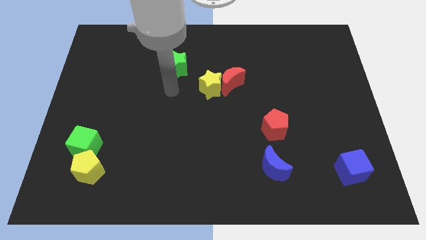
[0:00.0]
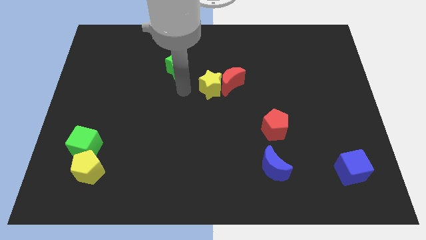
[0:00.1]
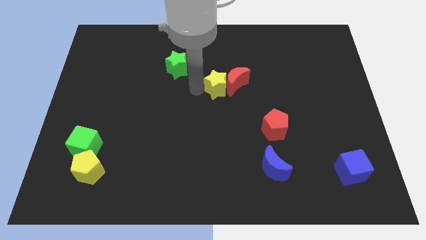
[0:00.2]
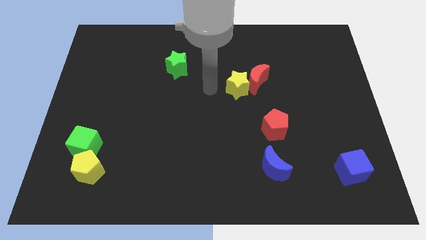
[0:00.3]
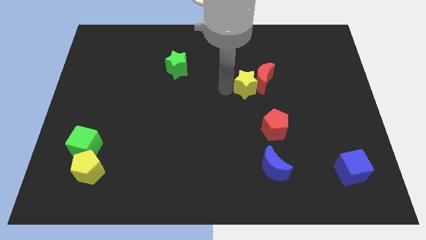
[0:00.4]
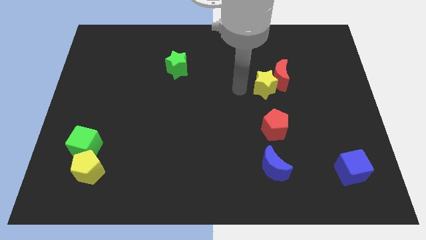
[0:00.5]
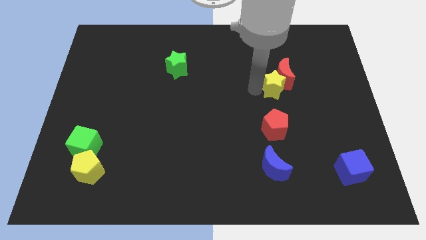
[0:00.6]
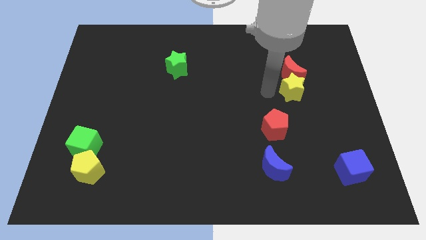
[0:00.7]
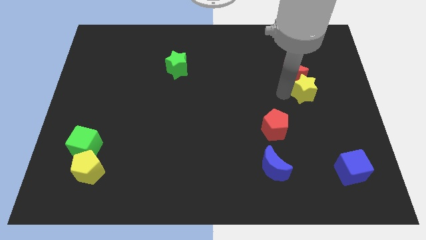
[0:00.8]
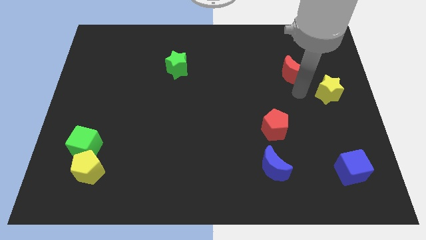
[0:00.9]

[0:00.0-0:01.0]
move the red moon away from the yellow star

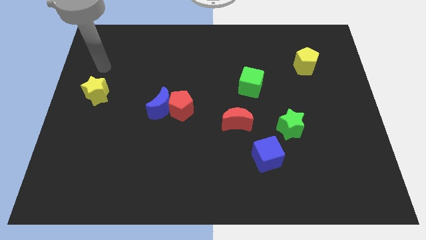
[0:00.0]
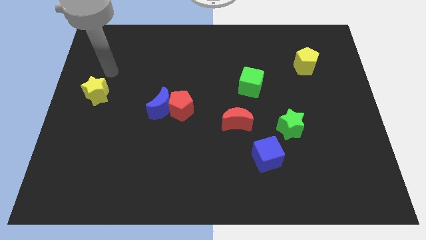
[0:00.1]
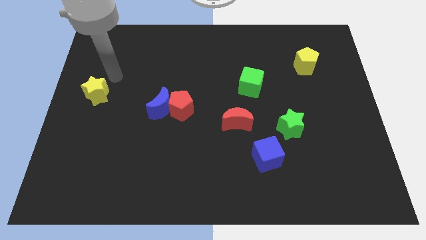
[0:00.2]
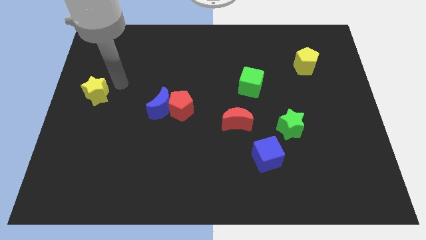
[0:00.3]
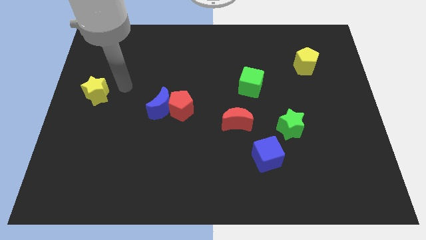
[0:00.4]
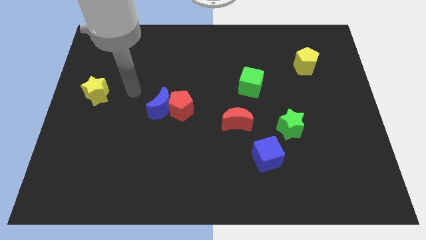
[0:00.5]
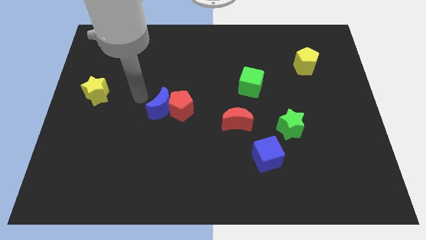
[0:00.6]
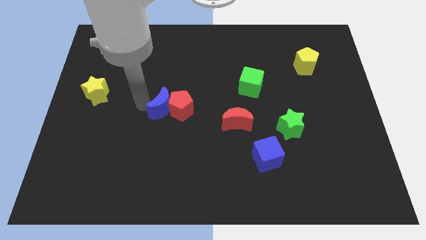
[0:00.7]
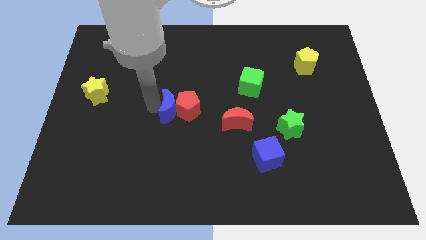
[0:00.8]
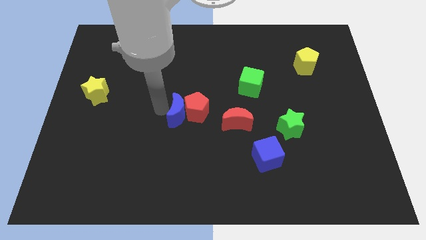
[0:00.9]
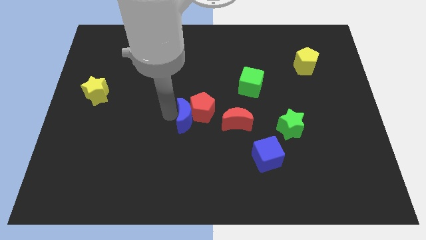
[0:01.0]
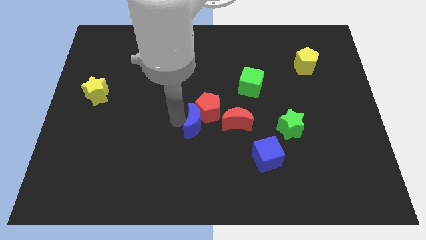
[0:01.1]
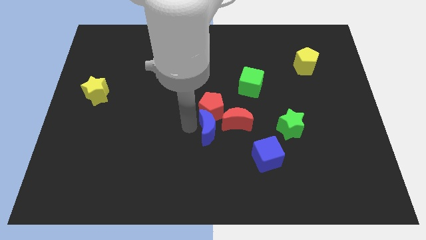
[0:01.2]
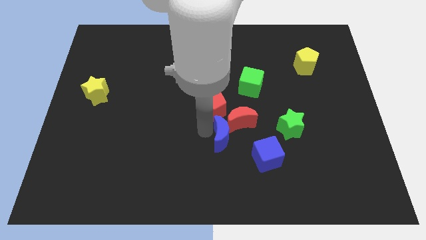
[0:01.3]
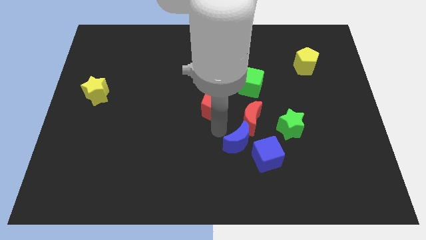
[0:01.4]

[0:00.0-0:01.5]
pull the red pentagon apart from the blue moon

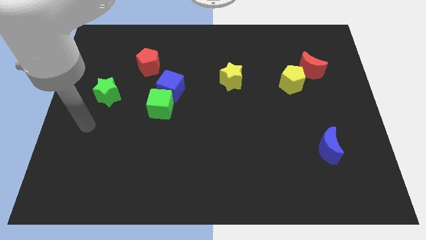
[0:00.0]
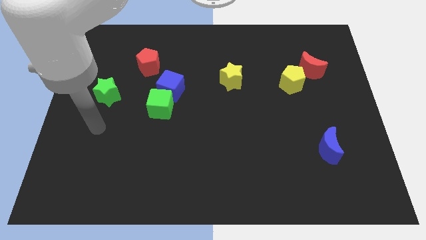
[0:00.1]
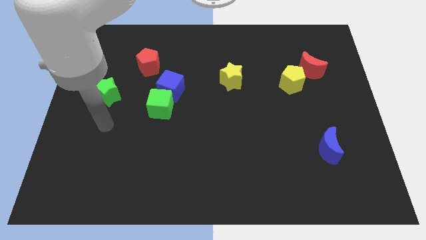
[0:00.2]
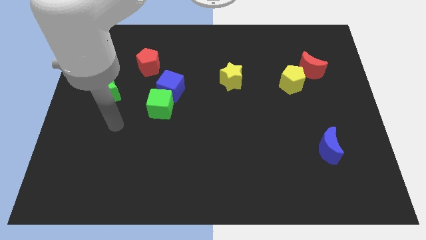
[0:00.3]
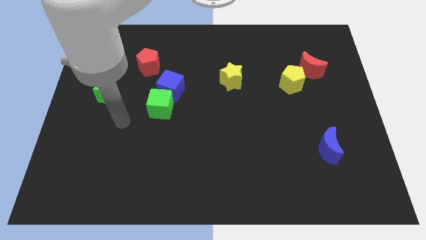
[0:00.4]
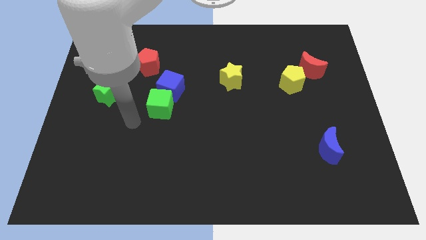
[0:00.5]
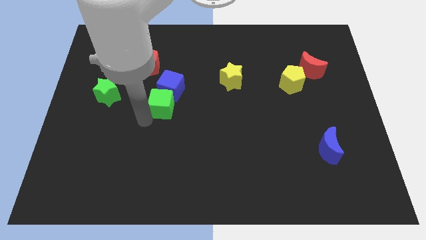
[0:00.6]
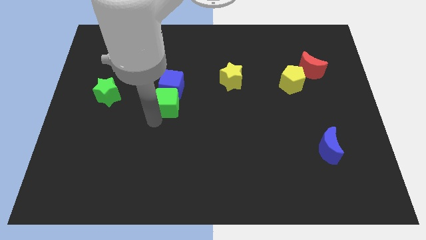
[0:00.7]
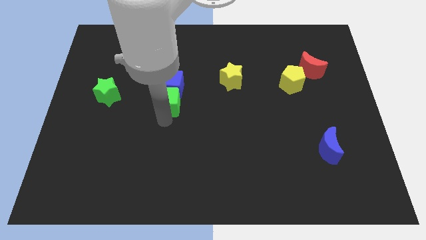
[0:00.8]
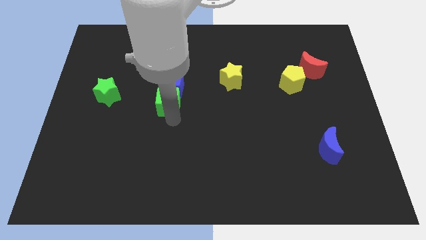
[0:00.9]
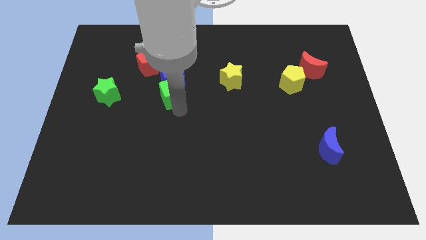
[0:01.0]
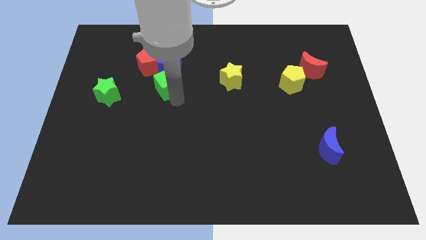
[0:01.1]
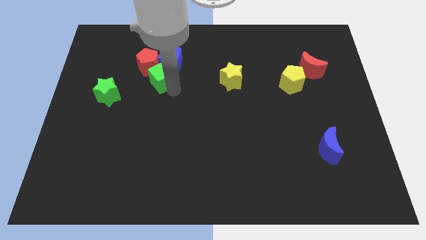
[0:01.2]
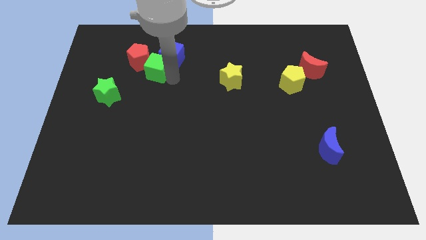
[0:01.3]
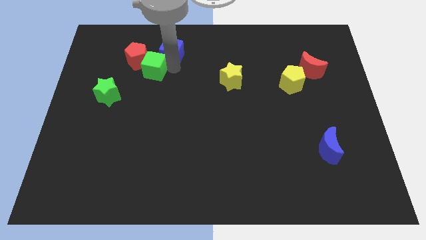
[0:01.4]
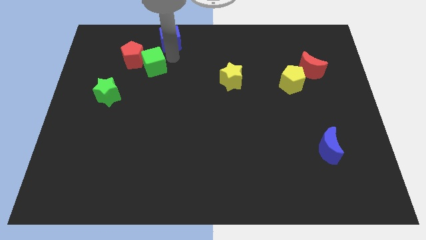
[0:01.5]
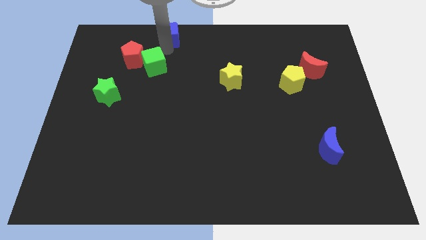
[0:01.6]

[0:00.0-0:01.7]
separate the green cube from the blue cube

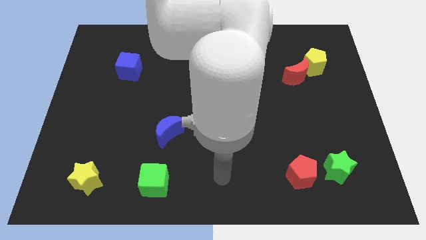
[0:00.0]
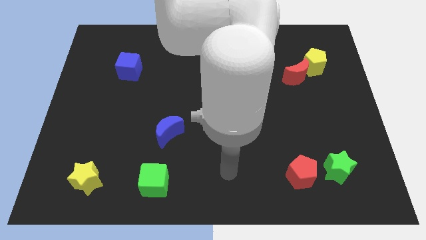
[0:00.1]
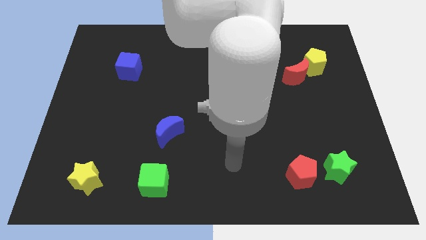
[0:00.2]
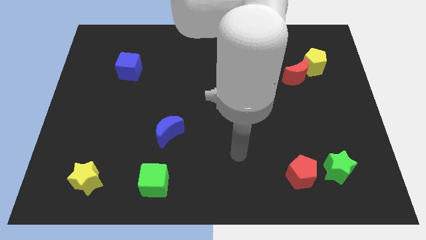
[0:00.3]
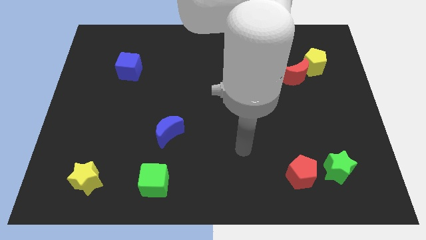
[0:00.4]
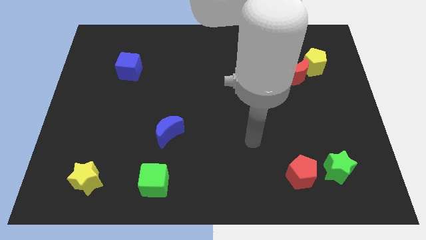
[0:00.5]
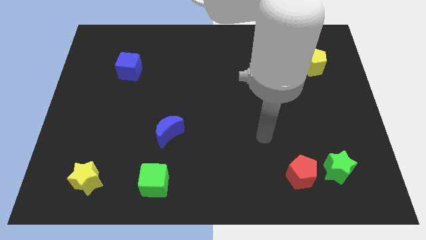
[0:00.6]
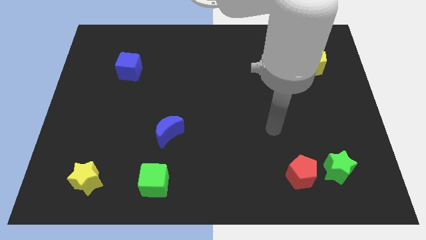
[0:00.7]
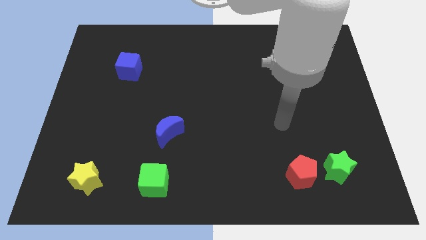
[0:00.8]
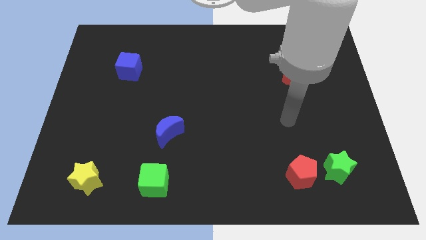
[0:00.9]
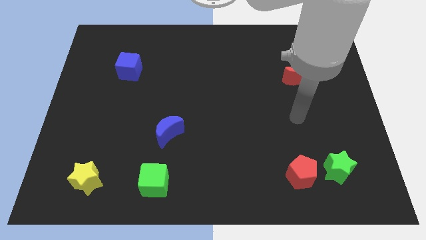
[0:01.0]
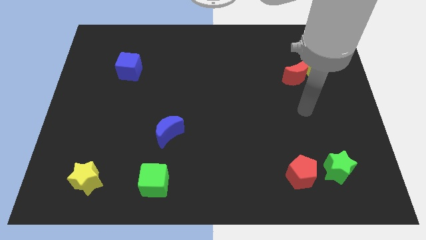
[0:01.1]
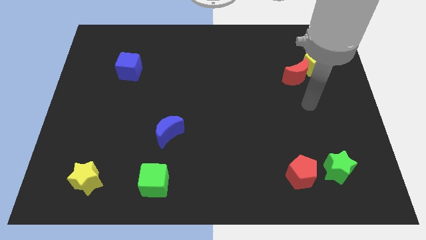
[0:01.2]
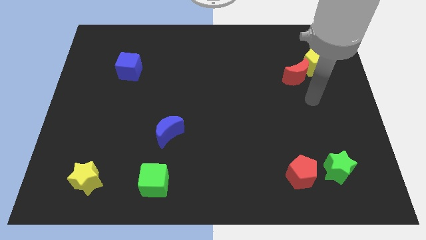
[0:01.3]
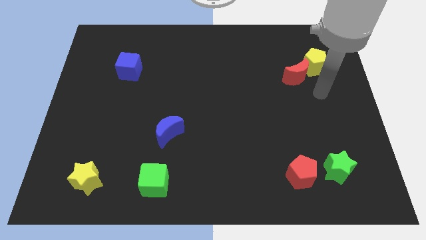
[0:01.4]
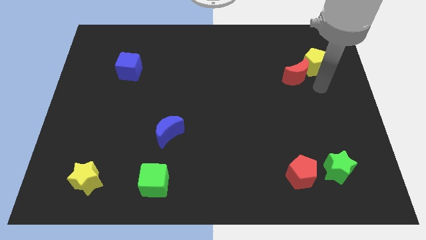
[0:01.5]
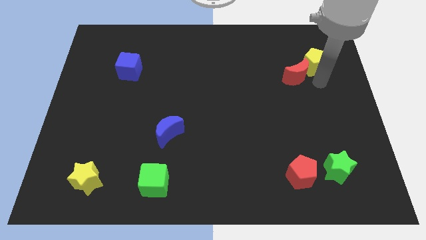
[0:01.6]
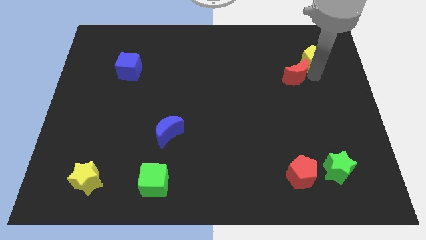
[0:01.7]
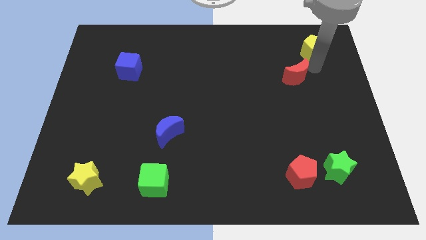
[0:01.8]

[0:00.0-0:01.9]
separate the red moon from the yellow pentagon

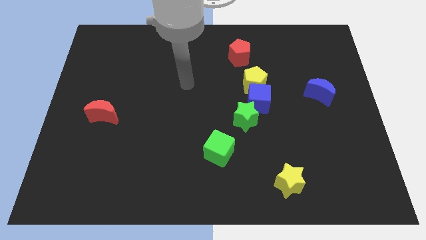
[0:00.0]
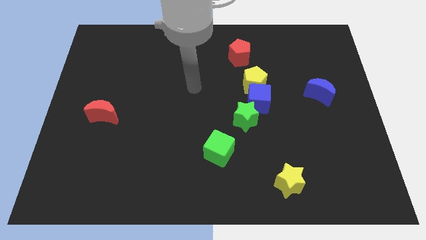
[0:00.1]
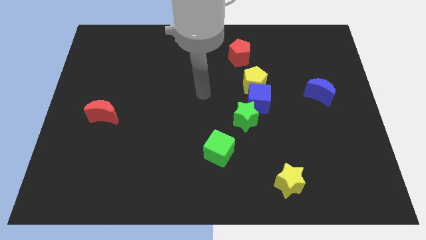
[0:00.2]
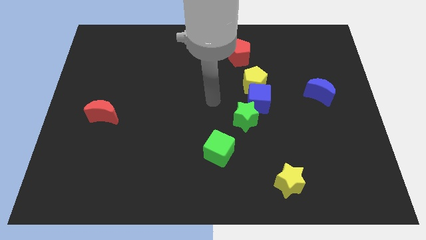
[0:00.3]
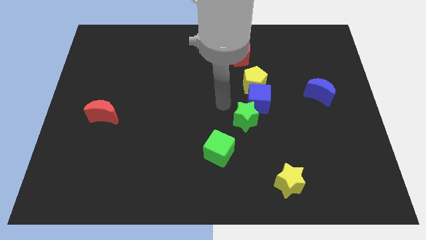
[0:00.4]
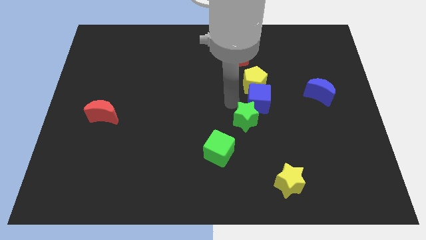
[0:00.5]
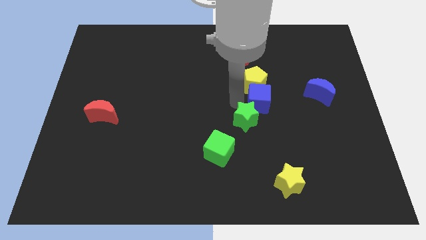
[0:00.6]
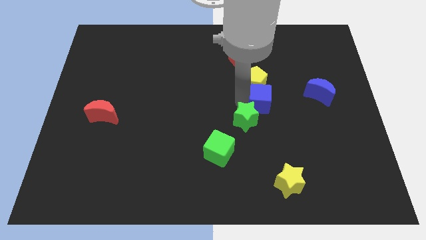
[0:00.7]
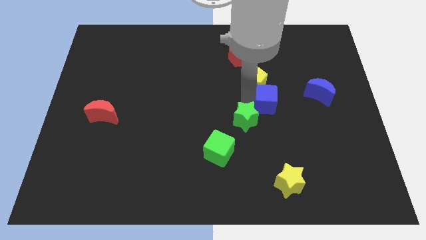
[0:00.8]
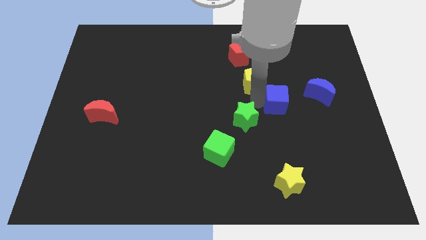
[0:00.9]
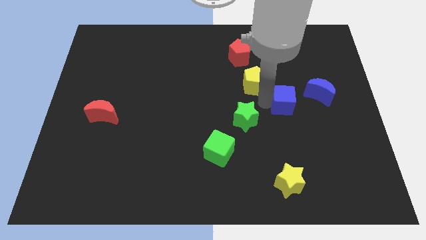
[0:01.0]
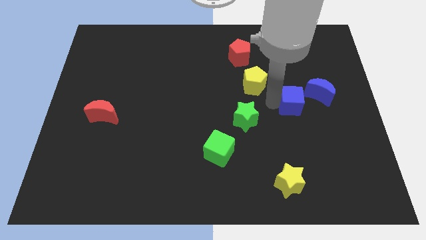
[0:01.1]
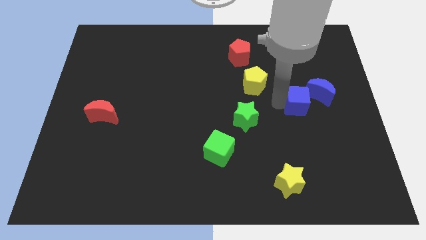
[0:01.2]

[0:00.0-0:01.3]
pull the blue cube apart from the yellow pentagon and green star

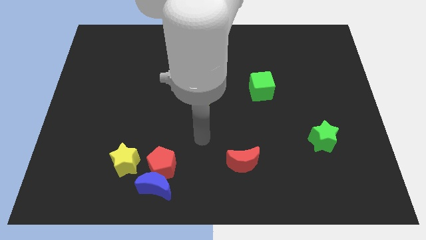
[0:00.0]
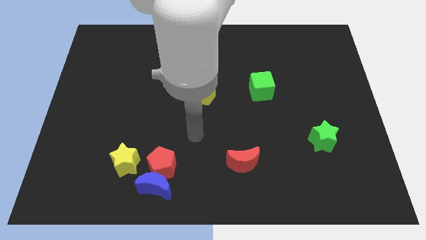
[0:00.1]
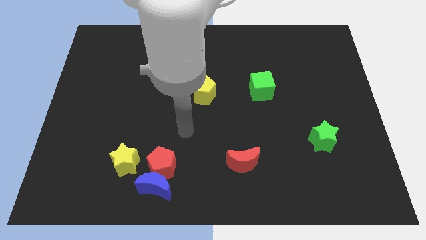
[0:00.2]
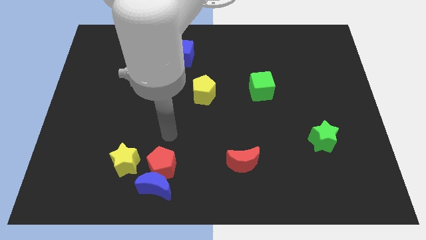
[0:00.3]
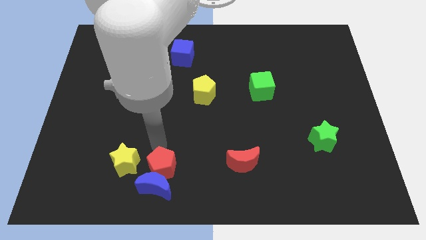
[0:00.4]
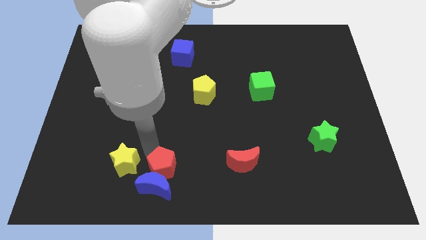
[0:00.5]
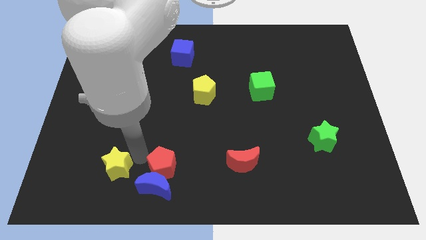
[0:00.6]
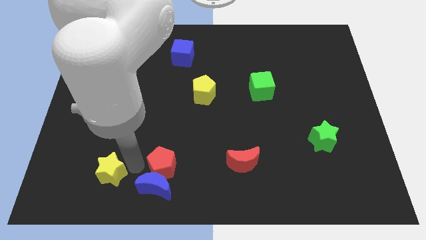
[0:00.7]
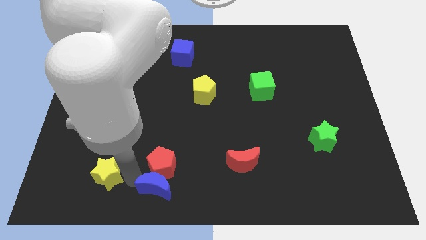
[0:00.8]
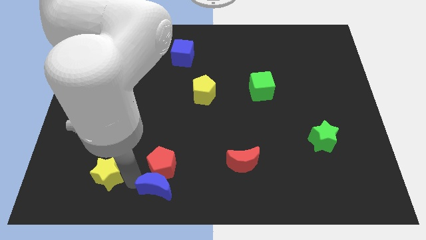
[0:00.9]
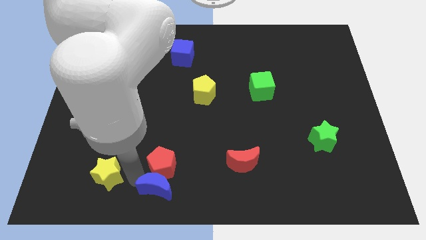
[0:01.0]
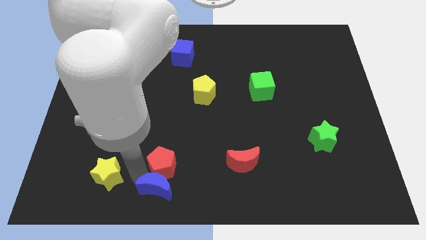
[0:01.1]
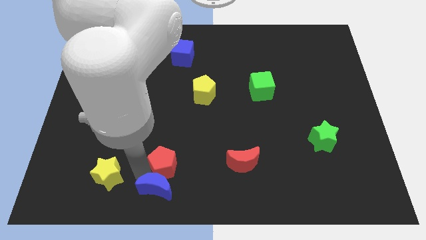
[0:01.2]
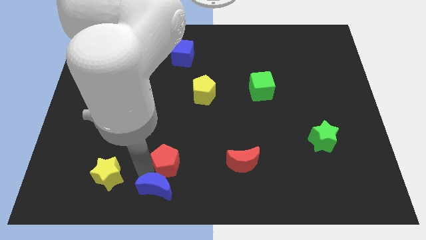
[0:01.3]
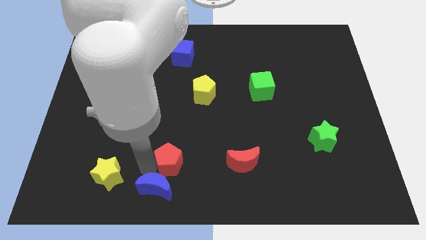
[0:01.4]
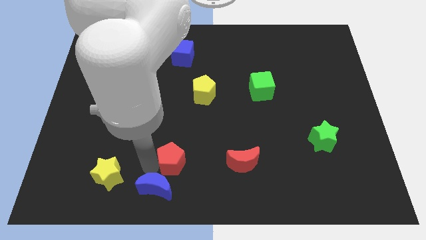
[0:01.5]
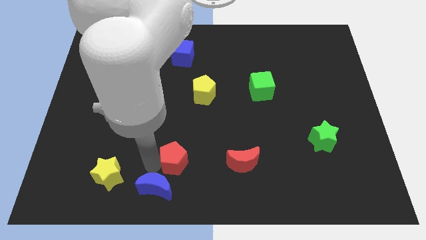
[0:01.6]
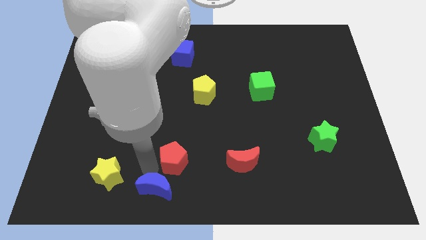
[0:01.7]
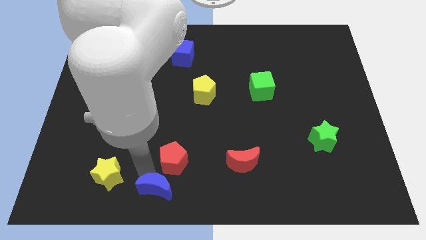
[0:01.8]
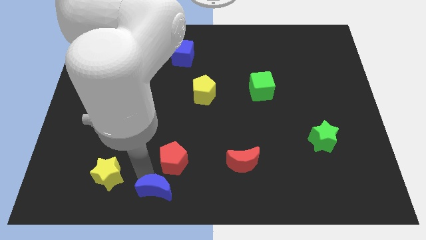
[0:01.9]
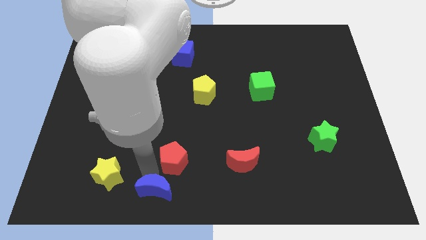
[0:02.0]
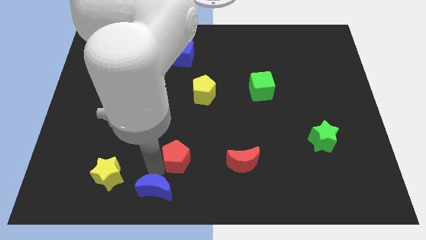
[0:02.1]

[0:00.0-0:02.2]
move the red pentagon away from the blue moon and yellow star
